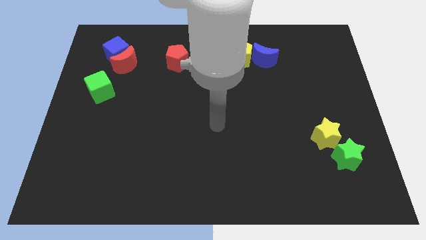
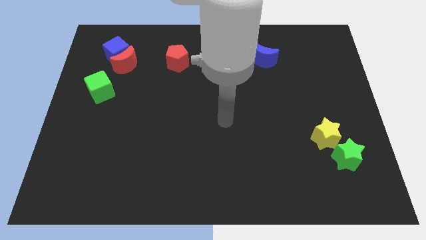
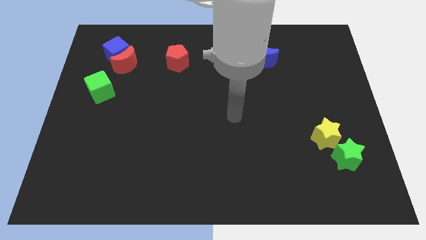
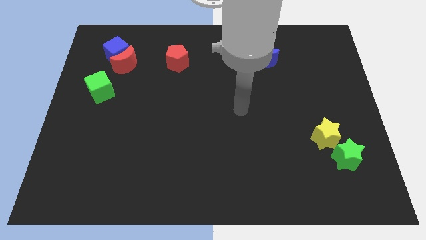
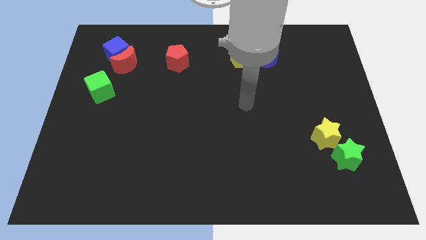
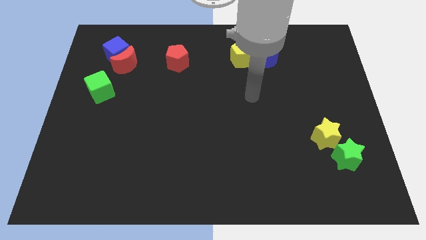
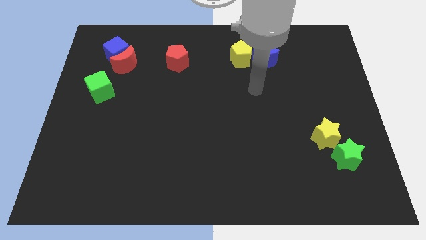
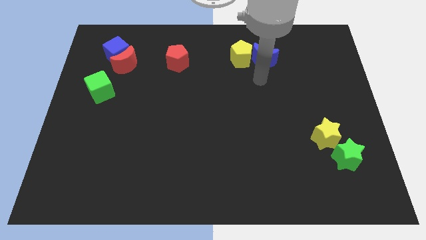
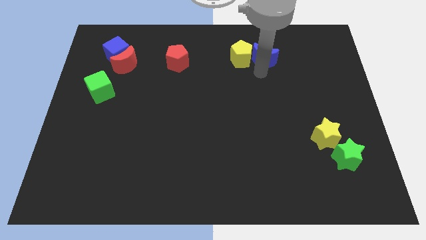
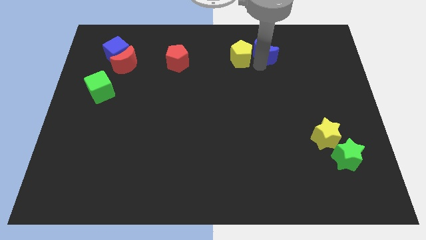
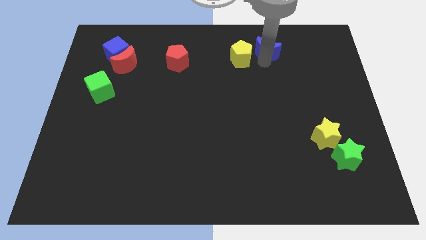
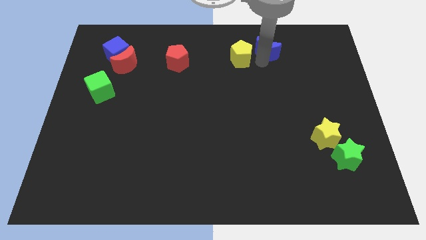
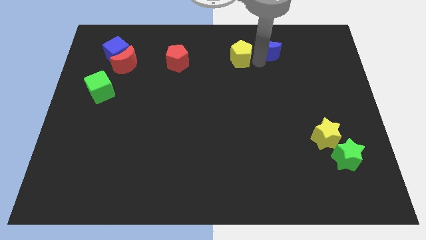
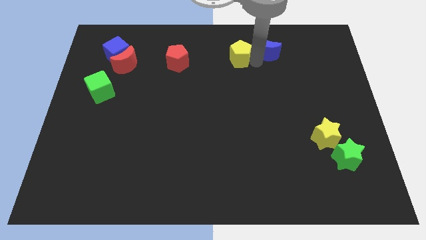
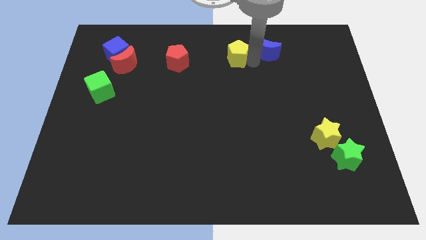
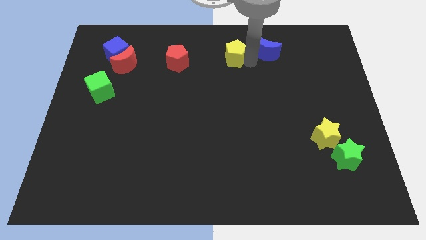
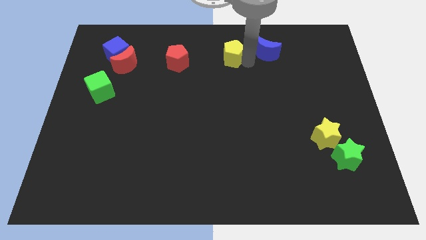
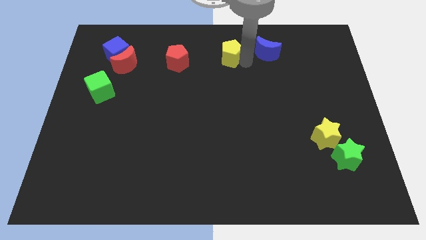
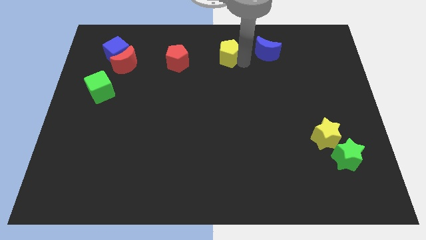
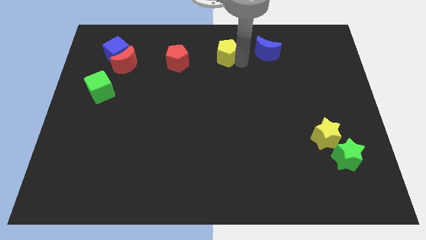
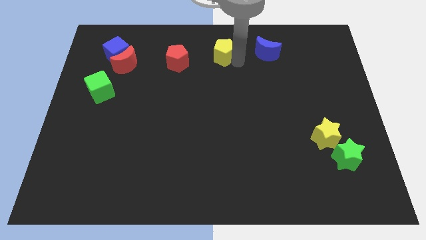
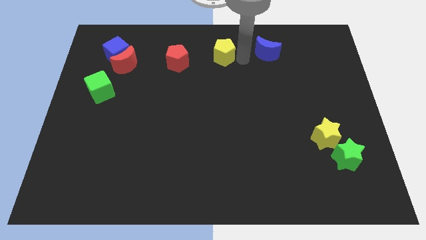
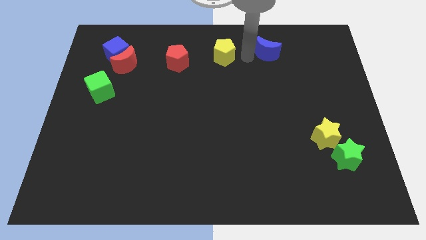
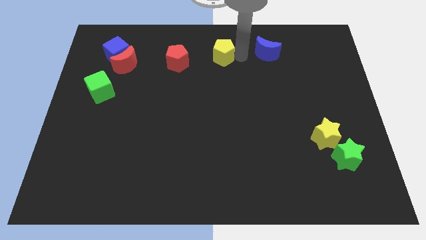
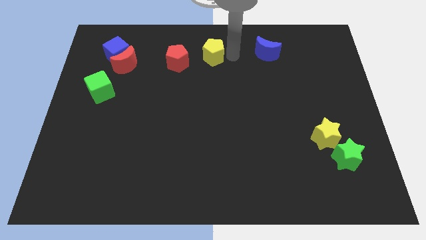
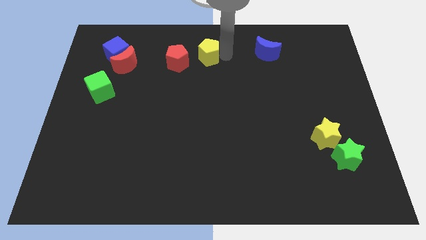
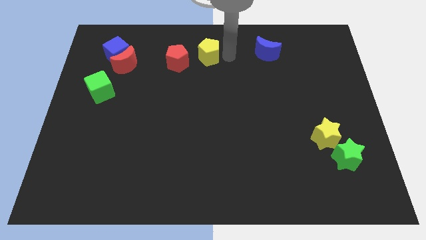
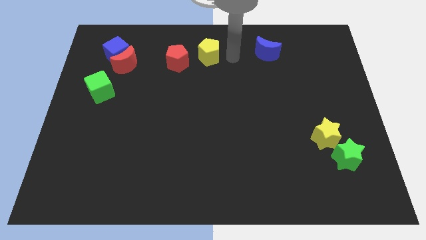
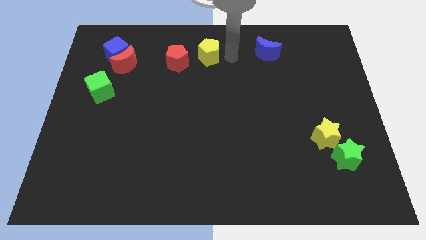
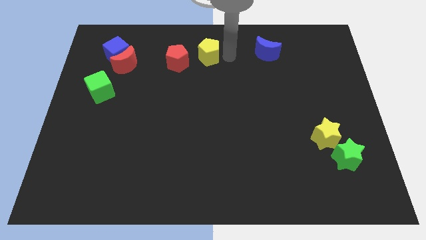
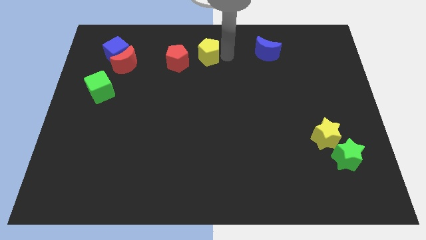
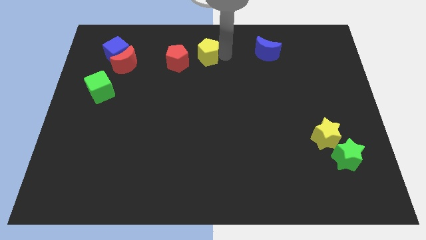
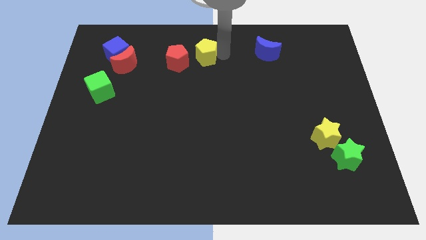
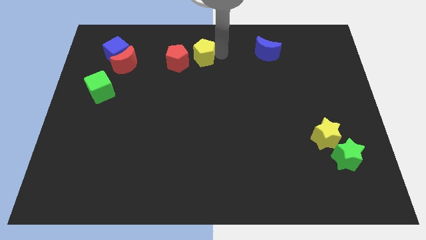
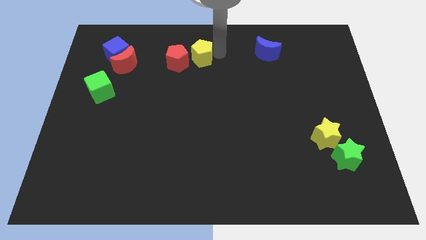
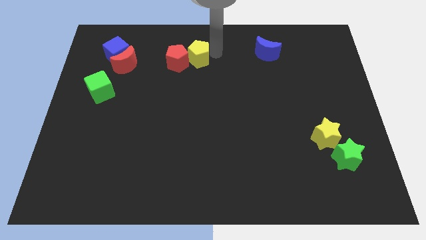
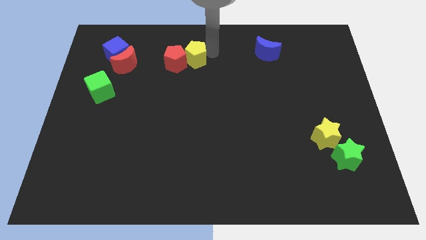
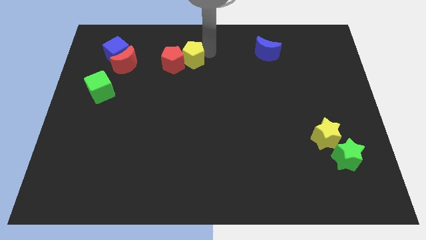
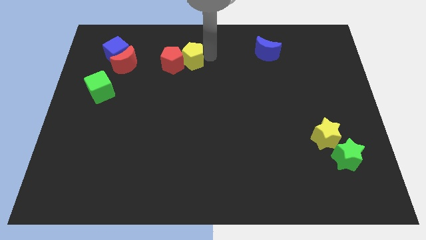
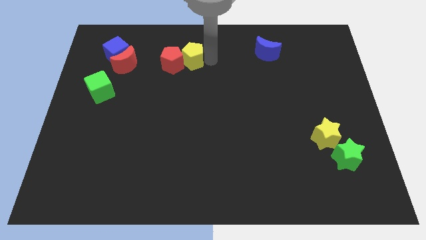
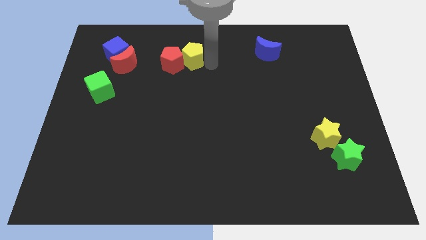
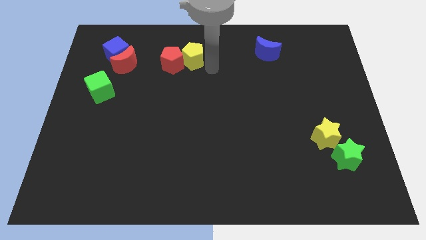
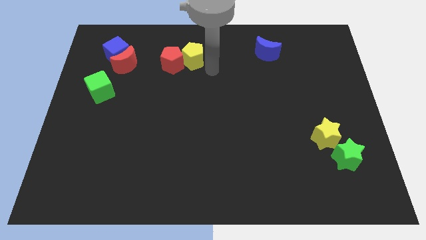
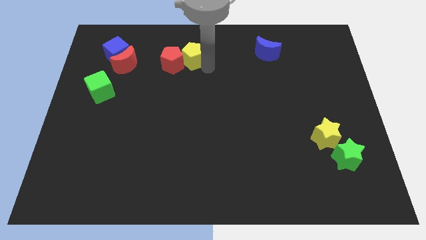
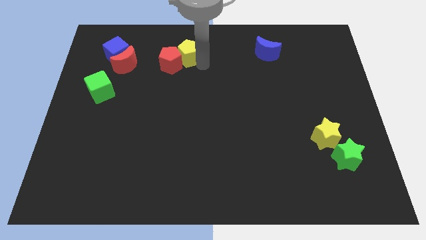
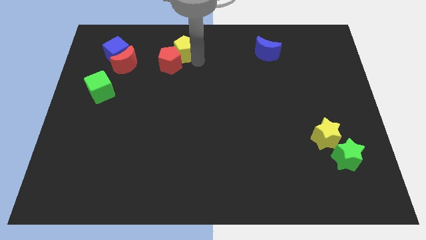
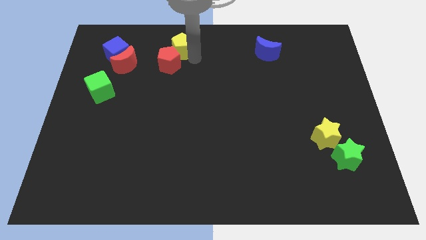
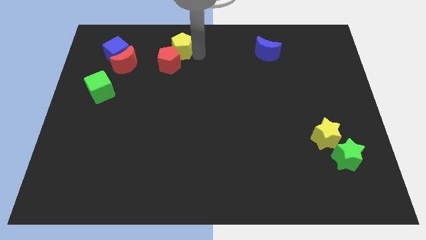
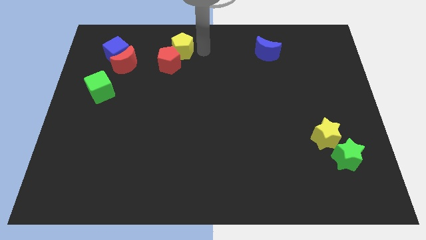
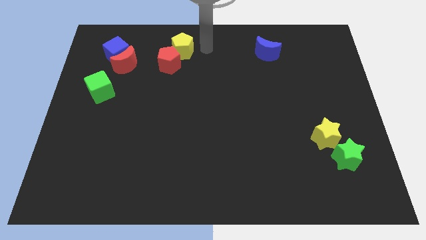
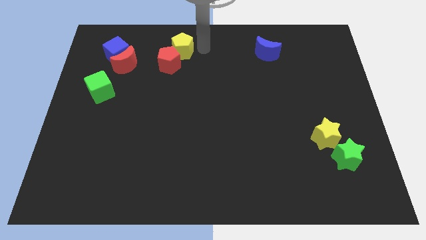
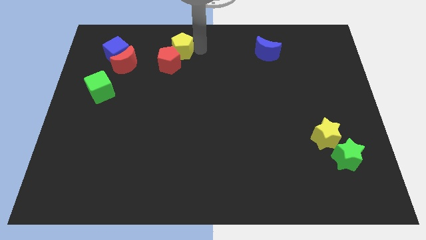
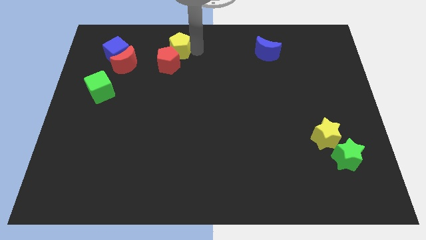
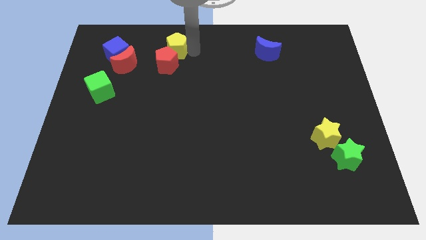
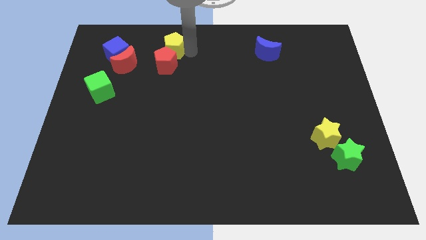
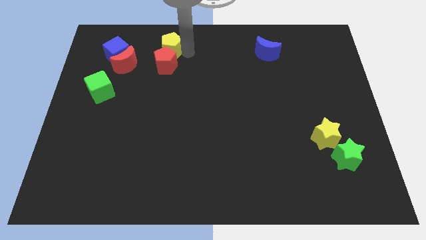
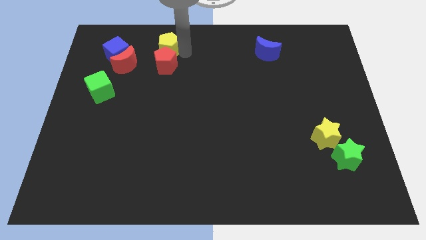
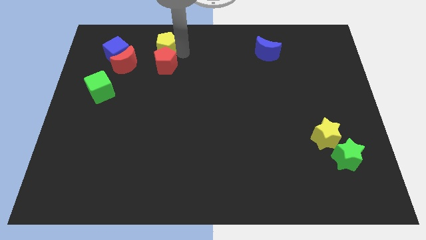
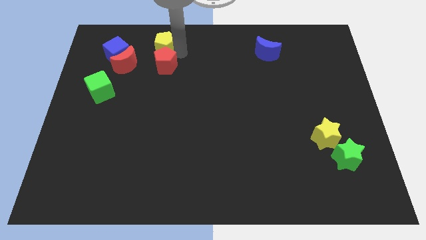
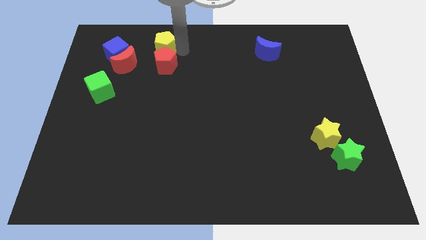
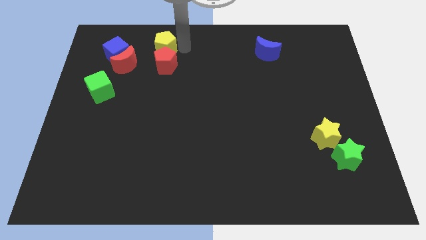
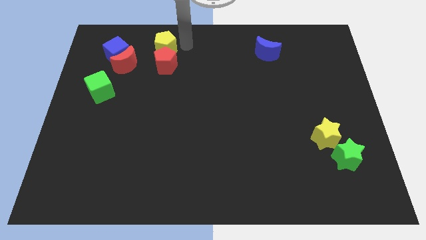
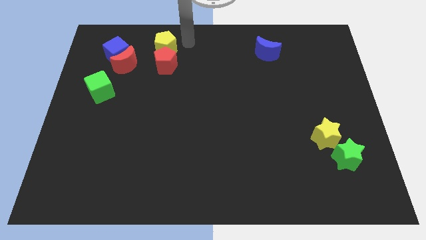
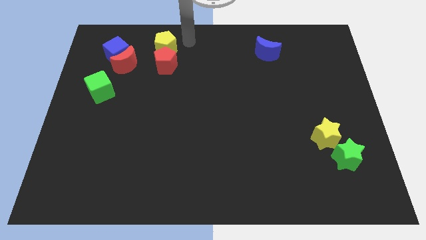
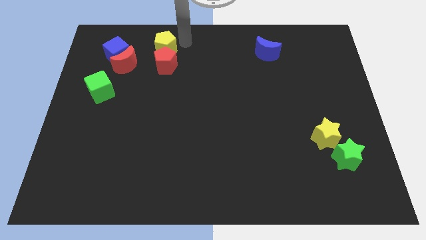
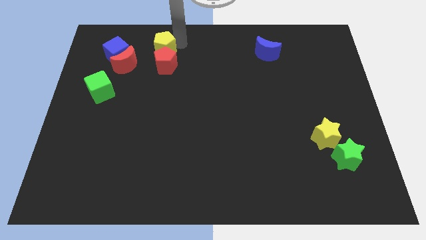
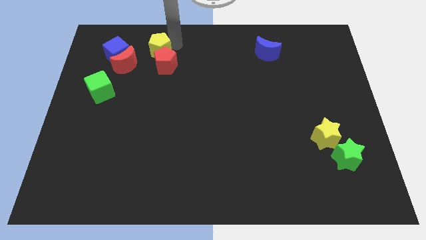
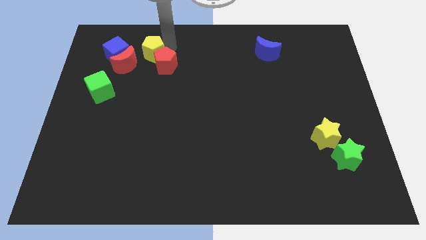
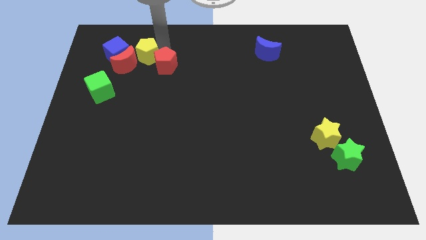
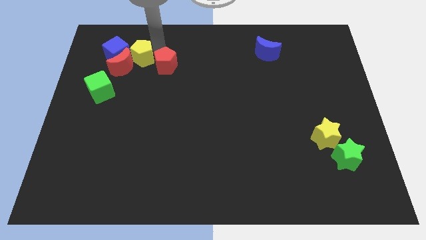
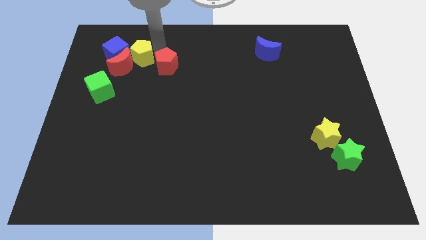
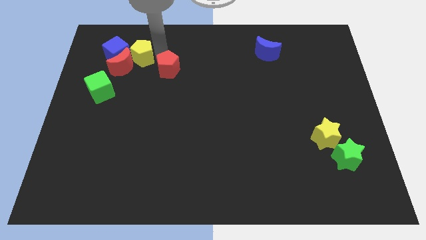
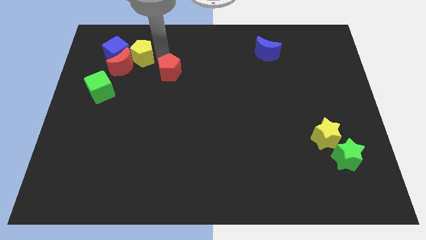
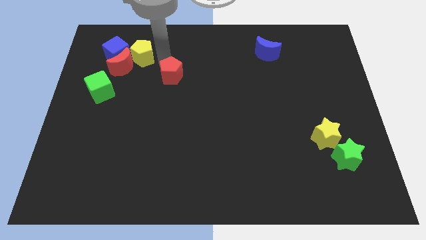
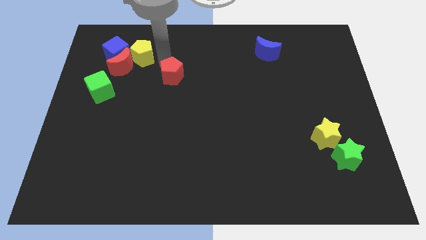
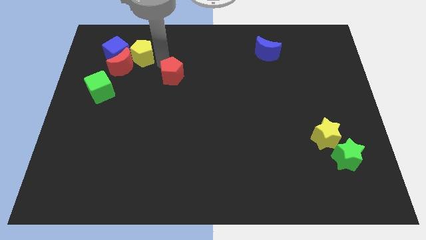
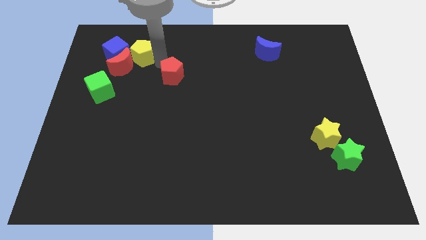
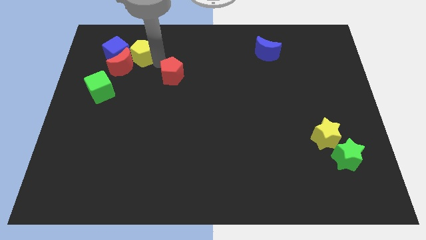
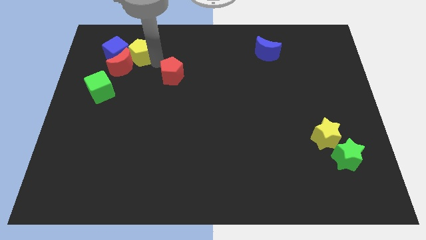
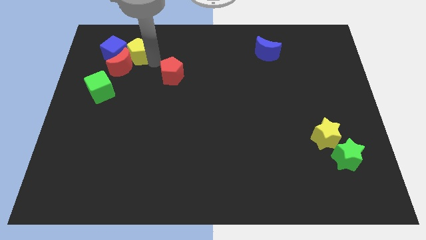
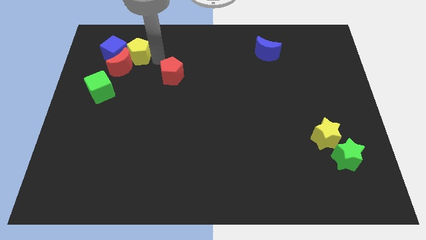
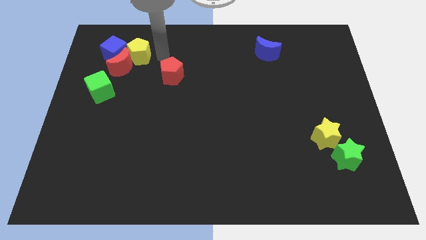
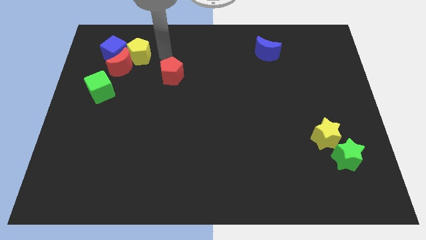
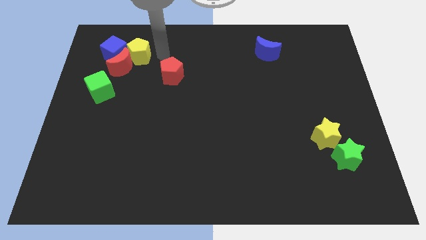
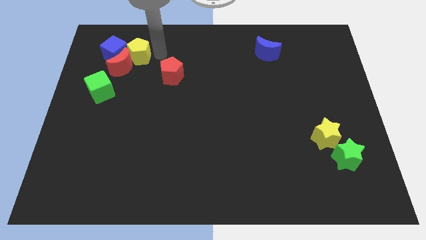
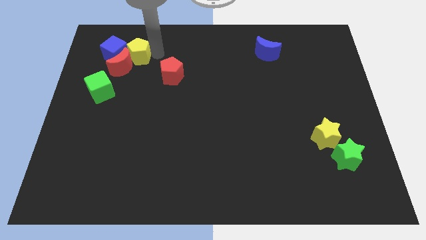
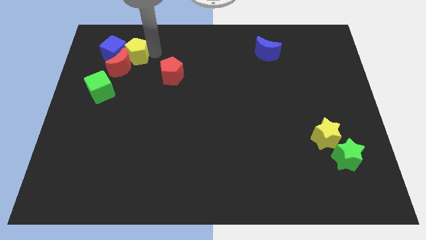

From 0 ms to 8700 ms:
put the yellow pentagon towards the blue cube
